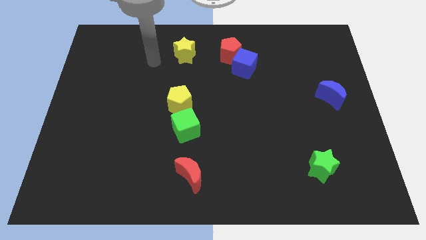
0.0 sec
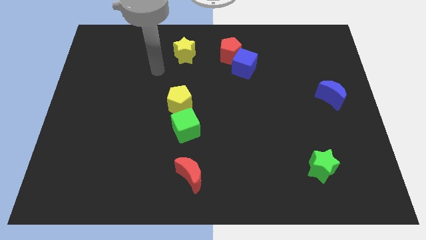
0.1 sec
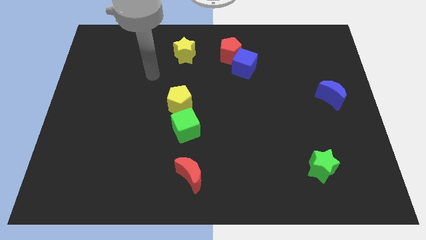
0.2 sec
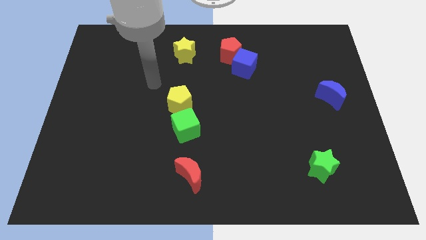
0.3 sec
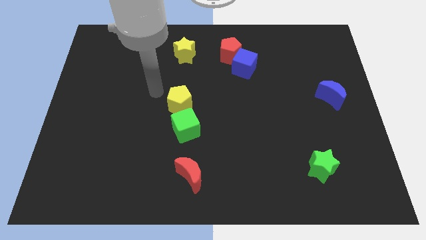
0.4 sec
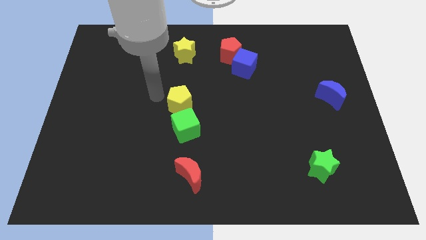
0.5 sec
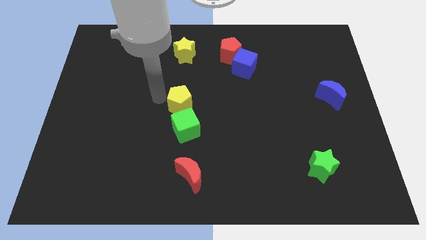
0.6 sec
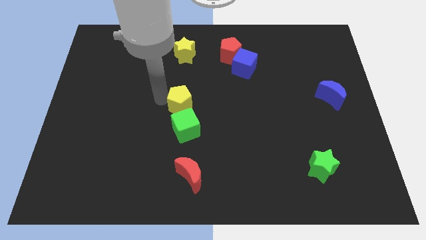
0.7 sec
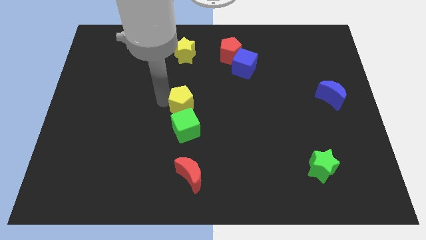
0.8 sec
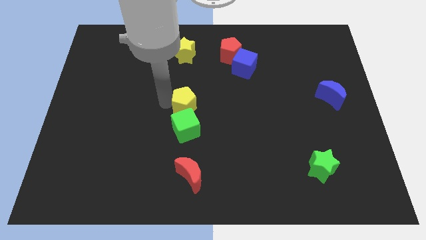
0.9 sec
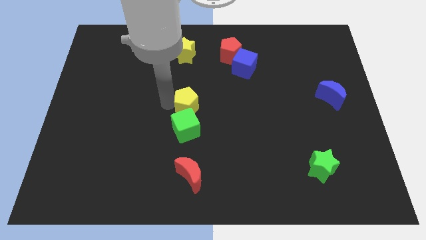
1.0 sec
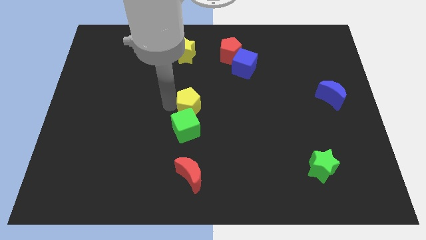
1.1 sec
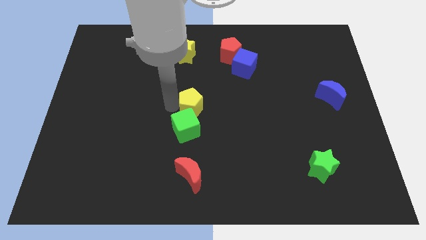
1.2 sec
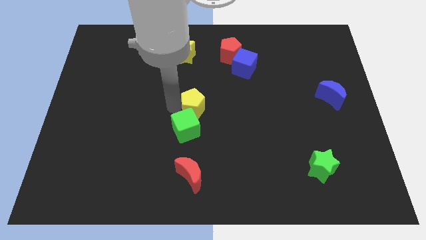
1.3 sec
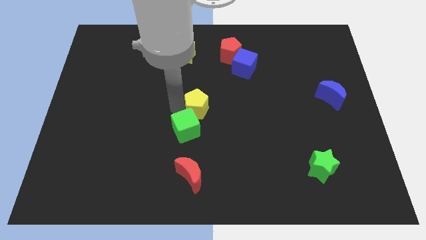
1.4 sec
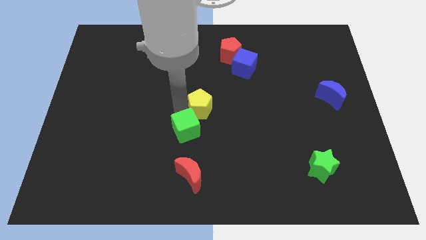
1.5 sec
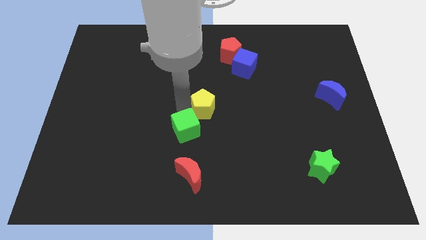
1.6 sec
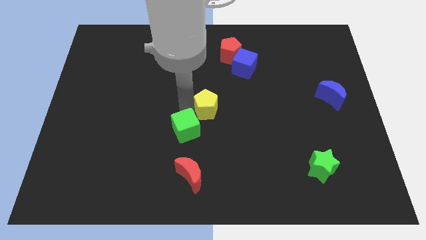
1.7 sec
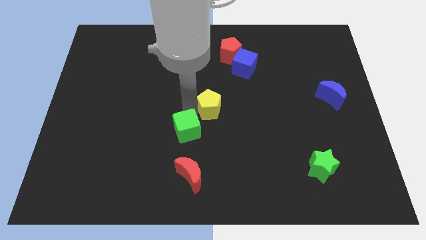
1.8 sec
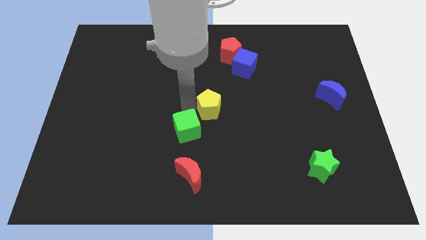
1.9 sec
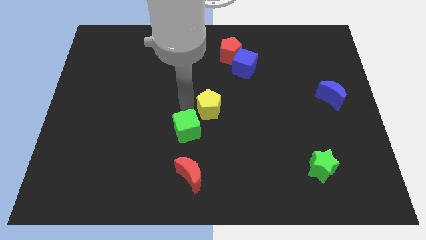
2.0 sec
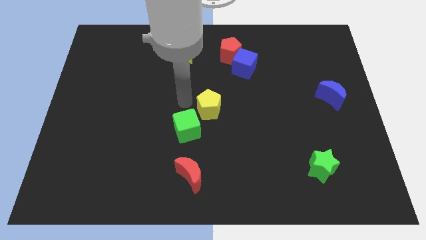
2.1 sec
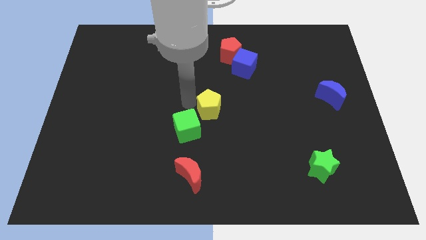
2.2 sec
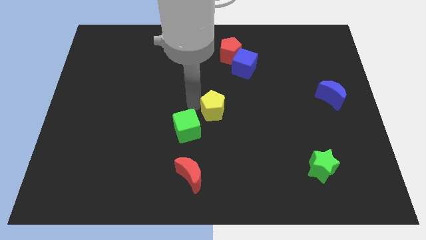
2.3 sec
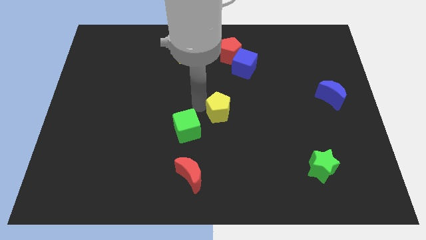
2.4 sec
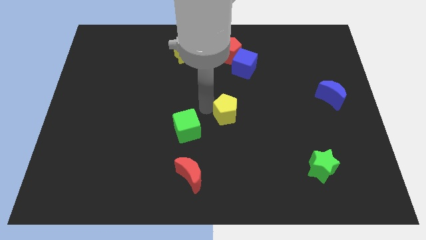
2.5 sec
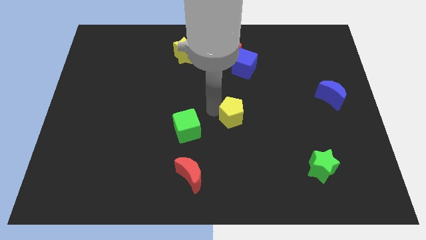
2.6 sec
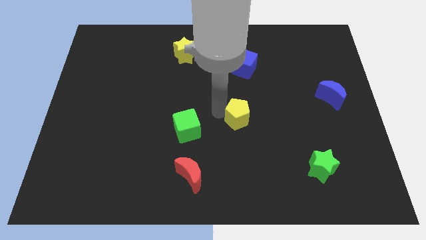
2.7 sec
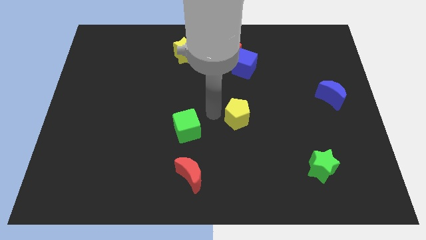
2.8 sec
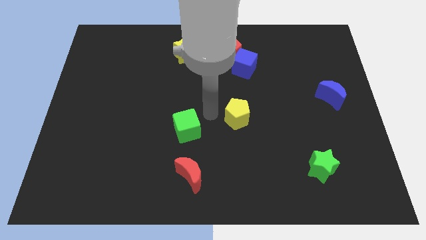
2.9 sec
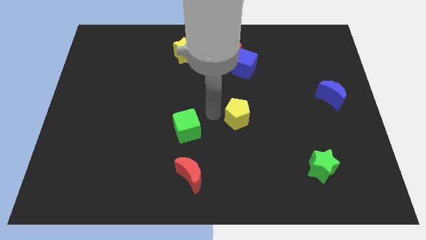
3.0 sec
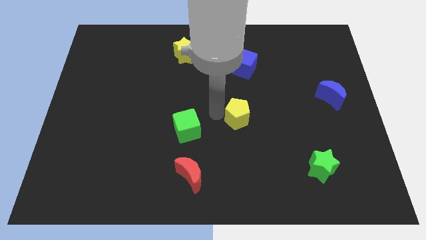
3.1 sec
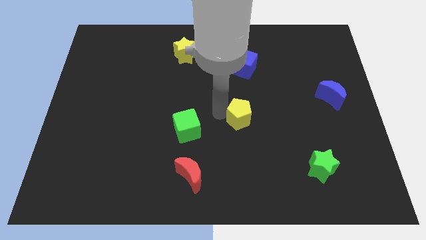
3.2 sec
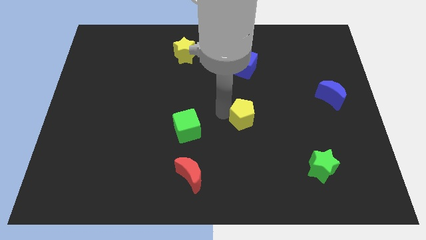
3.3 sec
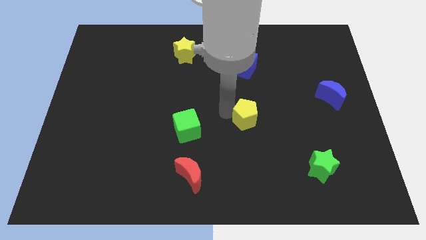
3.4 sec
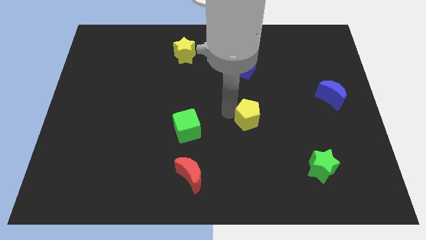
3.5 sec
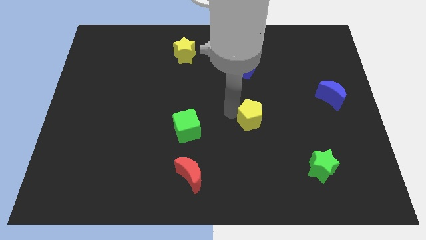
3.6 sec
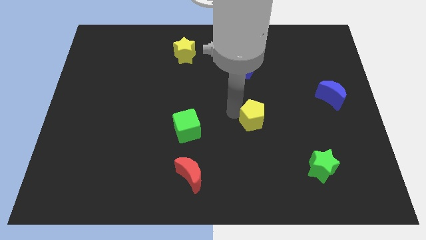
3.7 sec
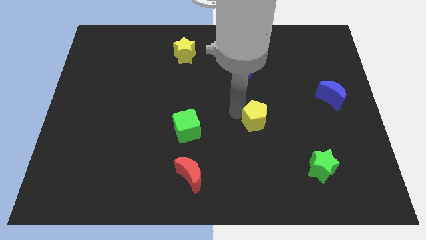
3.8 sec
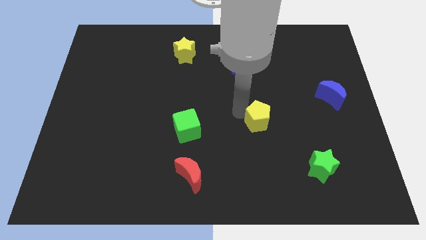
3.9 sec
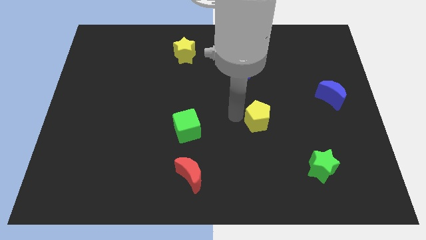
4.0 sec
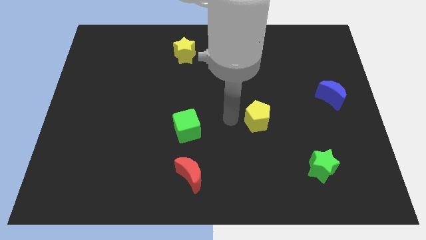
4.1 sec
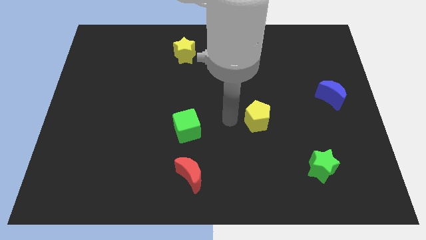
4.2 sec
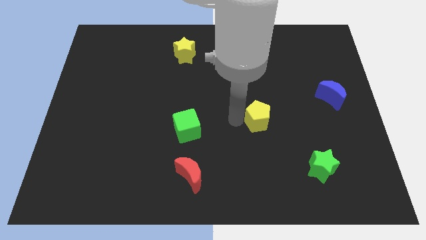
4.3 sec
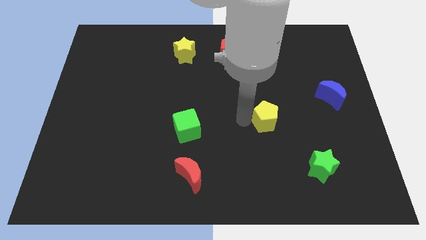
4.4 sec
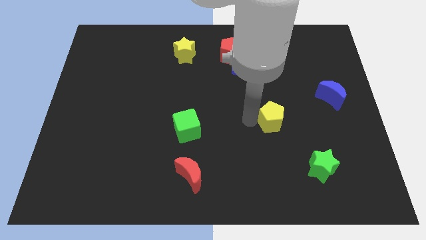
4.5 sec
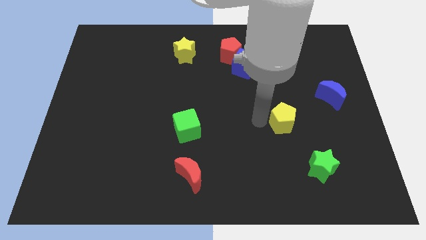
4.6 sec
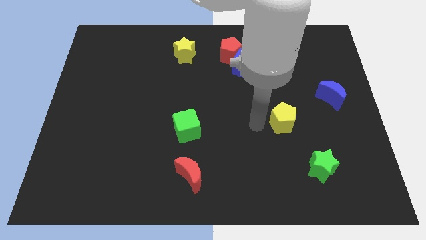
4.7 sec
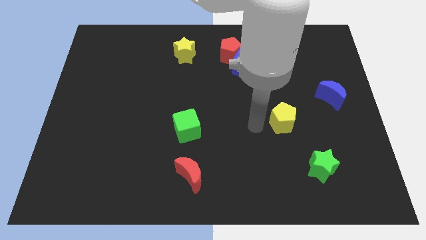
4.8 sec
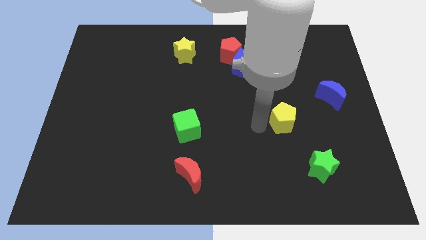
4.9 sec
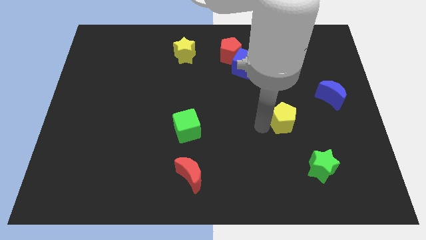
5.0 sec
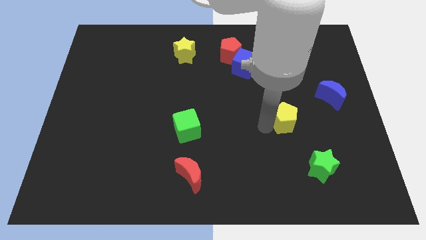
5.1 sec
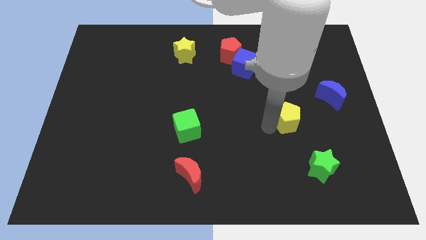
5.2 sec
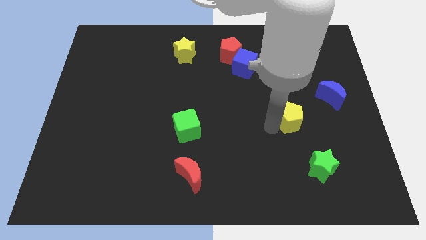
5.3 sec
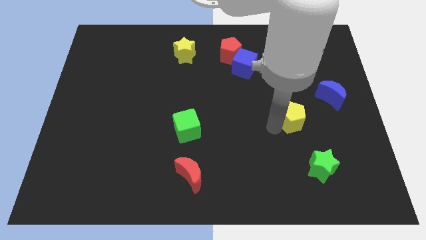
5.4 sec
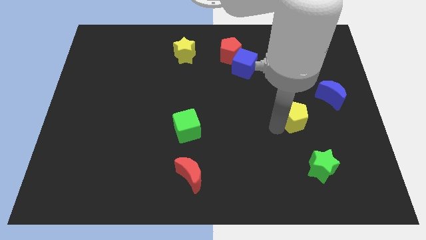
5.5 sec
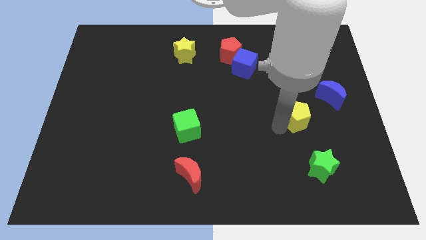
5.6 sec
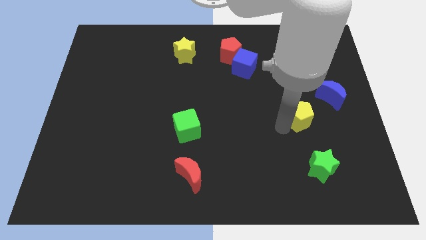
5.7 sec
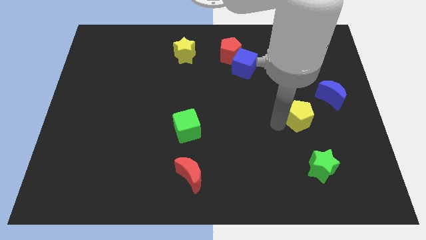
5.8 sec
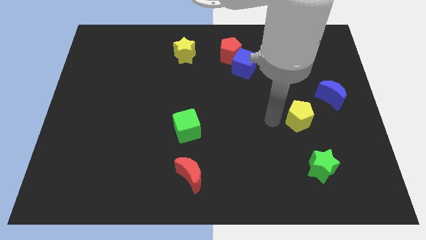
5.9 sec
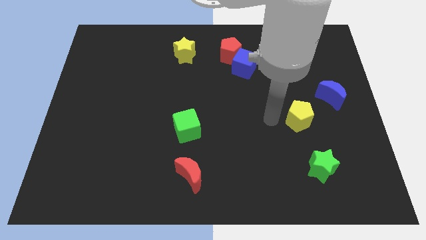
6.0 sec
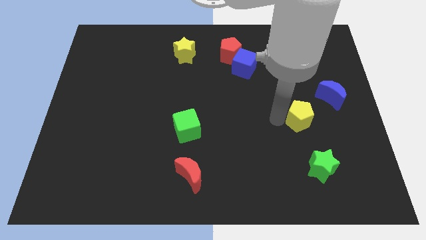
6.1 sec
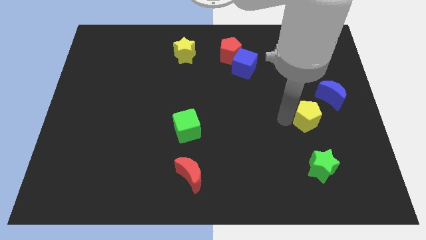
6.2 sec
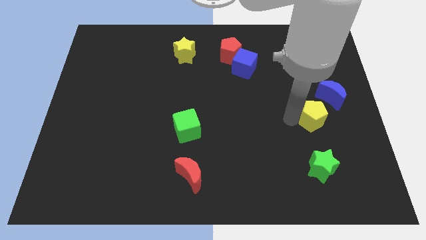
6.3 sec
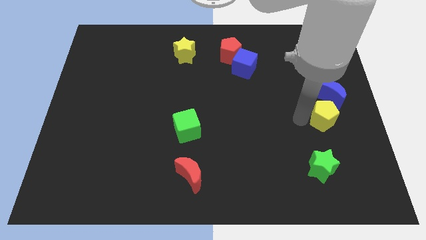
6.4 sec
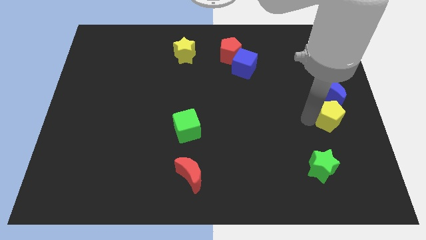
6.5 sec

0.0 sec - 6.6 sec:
slide the yellow pentagon to the right side
